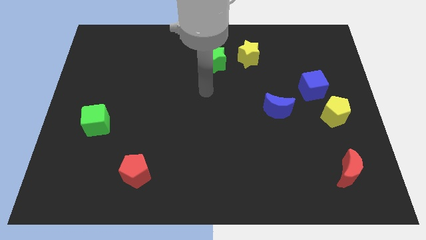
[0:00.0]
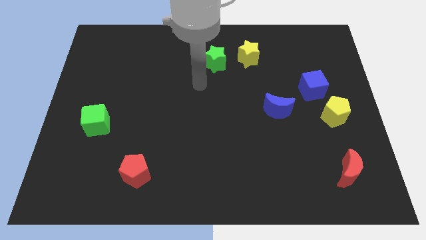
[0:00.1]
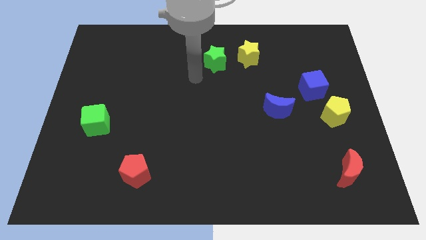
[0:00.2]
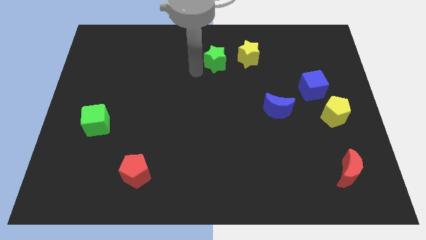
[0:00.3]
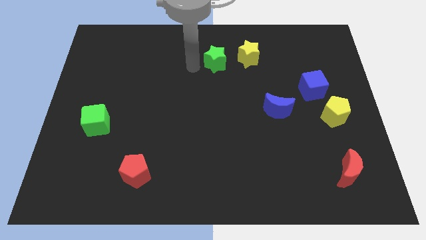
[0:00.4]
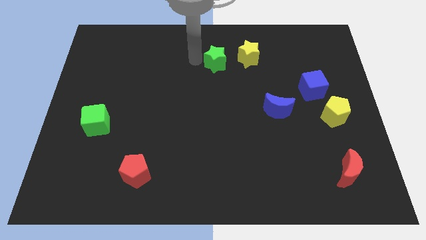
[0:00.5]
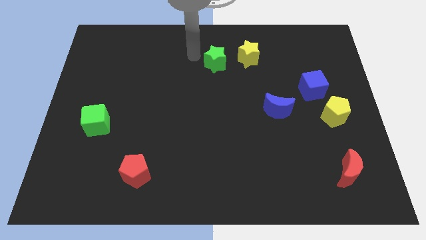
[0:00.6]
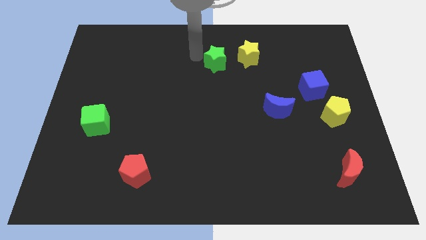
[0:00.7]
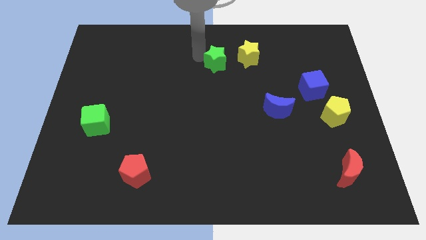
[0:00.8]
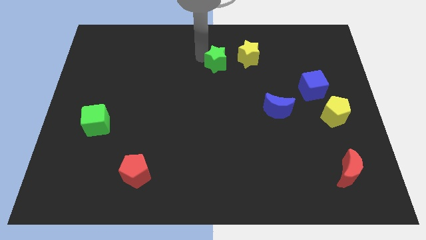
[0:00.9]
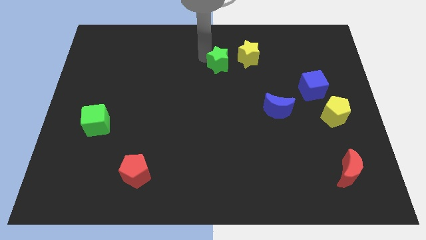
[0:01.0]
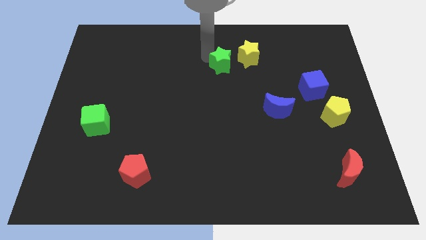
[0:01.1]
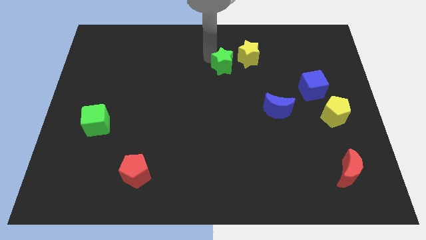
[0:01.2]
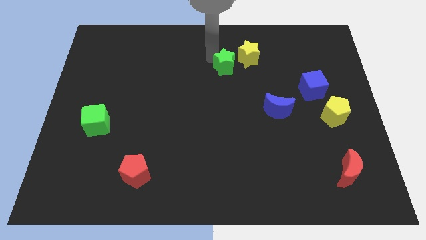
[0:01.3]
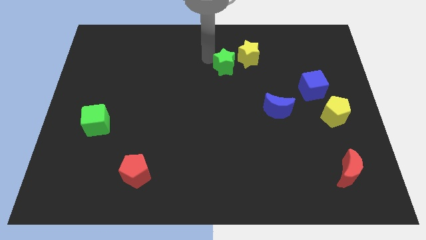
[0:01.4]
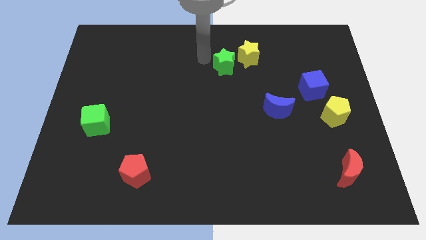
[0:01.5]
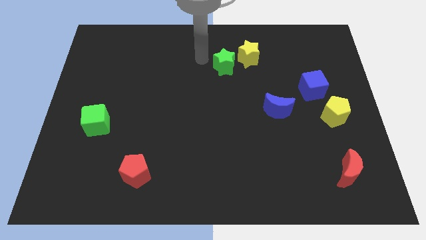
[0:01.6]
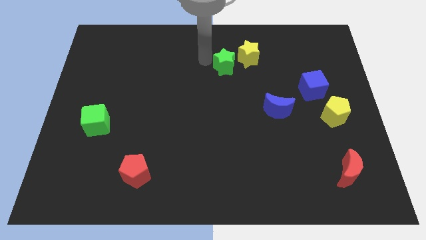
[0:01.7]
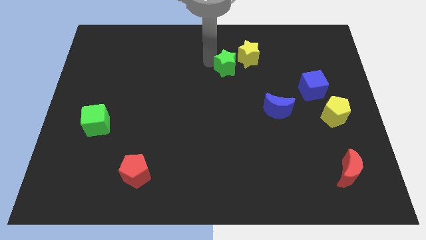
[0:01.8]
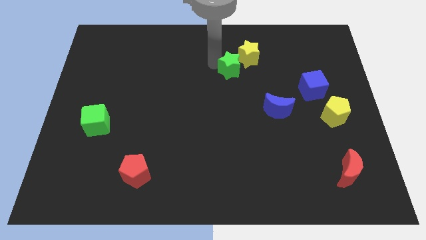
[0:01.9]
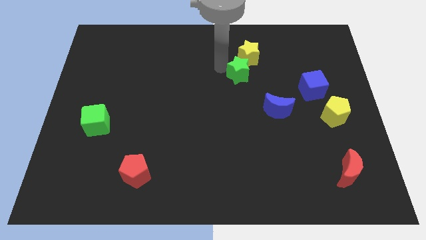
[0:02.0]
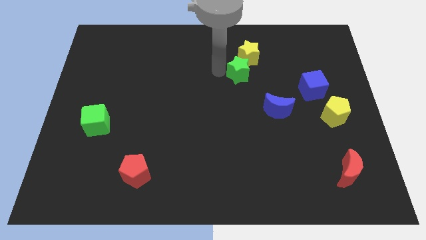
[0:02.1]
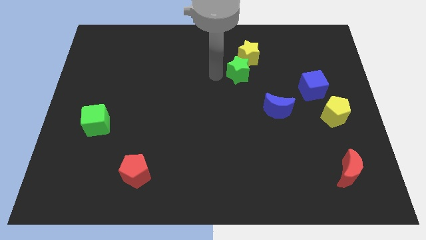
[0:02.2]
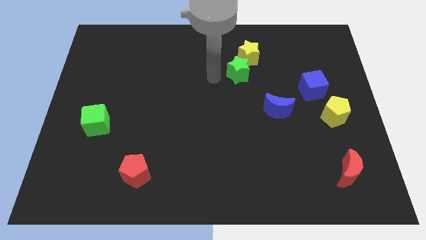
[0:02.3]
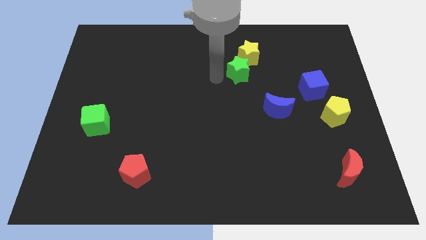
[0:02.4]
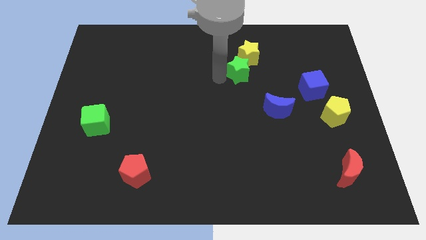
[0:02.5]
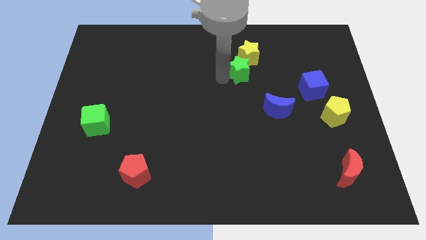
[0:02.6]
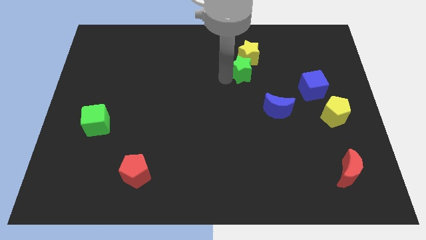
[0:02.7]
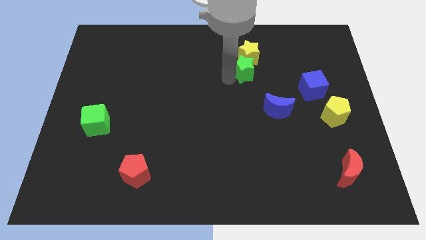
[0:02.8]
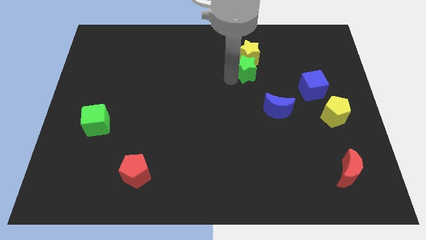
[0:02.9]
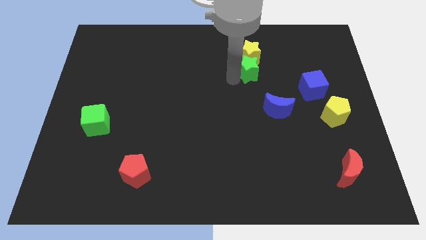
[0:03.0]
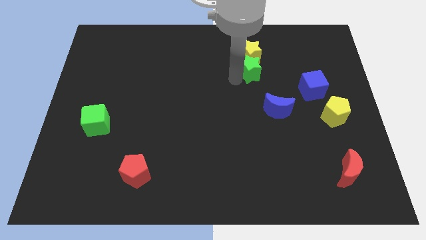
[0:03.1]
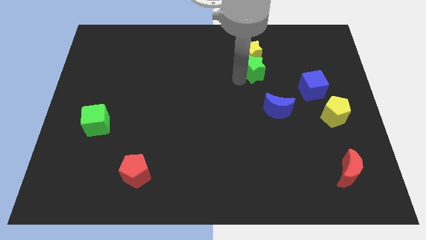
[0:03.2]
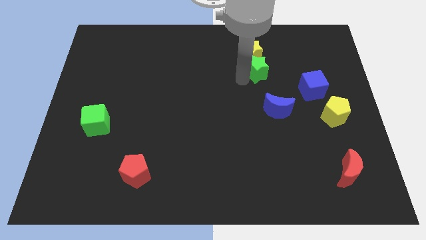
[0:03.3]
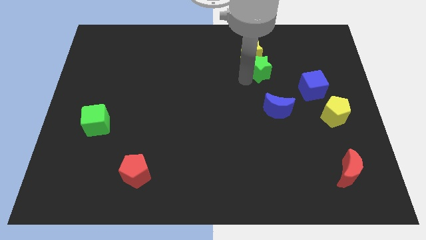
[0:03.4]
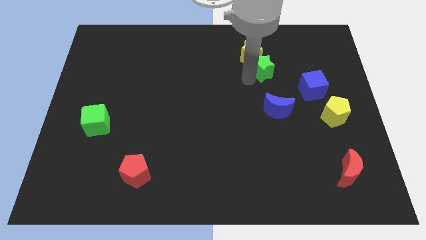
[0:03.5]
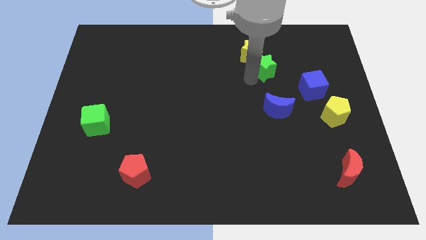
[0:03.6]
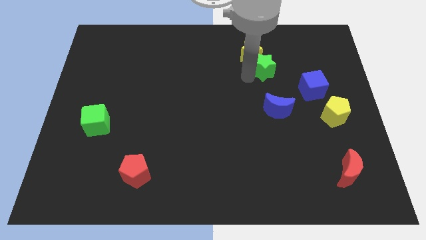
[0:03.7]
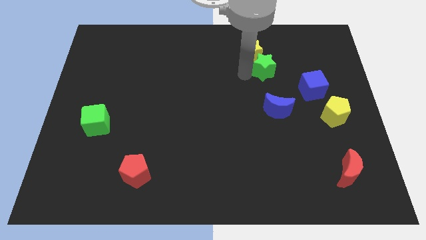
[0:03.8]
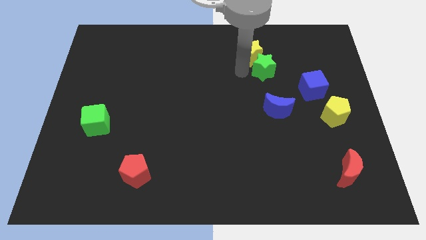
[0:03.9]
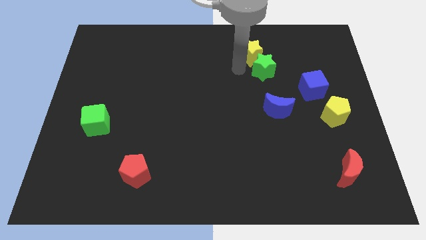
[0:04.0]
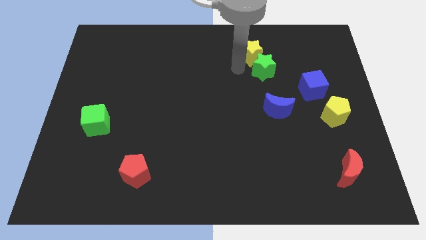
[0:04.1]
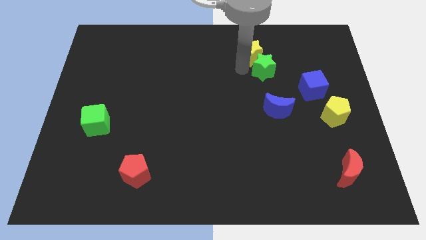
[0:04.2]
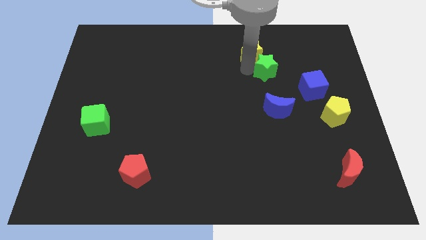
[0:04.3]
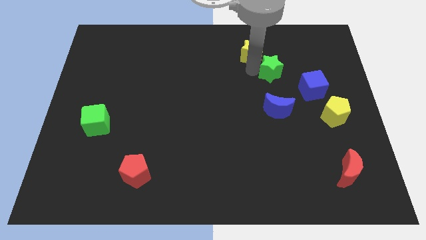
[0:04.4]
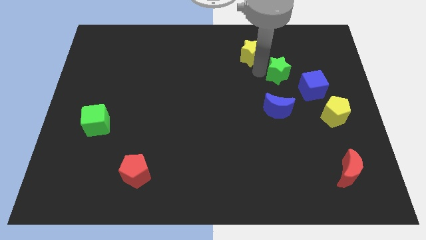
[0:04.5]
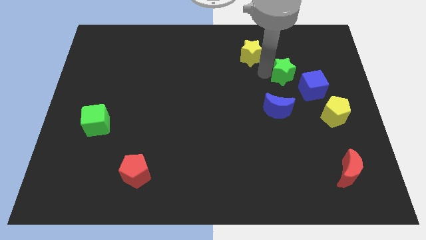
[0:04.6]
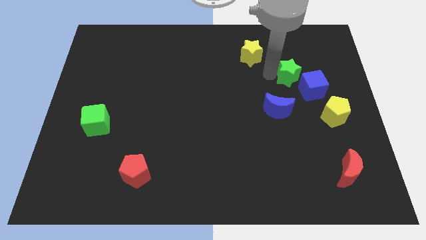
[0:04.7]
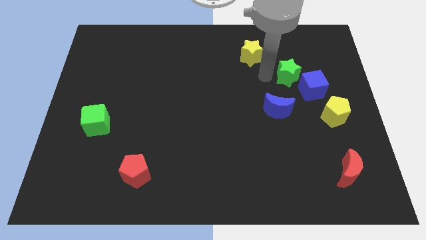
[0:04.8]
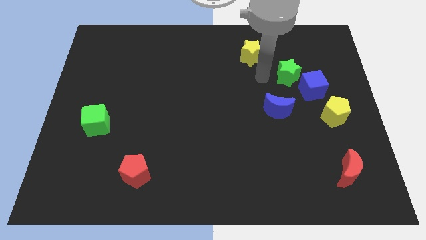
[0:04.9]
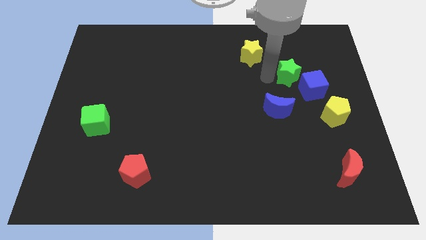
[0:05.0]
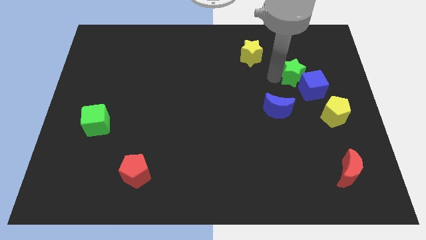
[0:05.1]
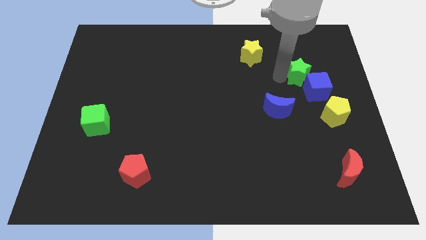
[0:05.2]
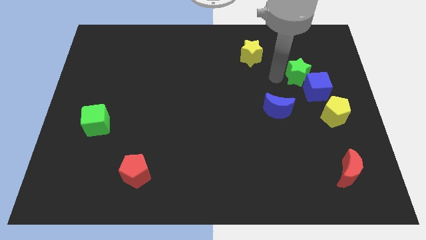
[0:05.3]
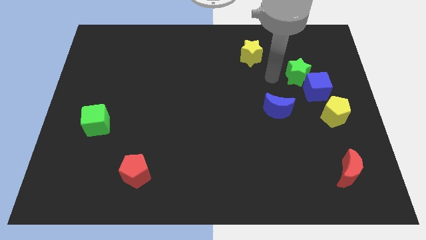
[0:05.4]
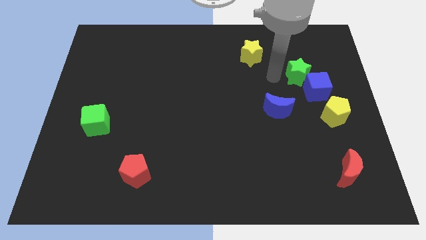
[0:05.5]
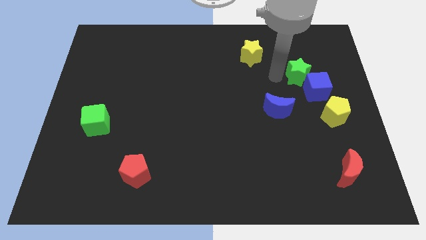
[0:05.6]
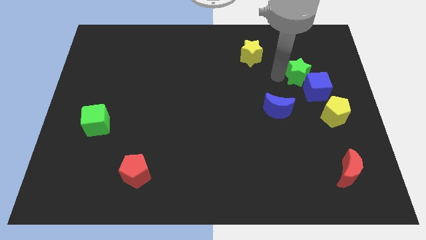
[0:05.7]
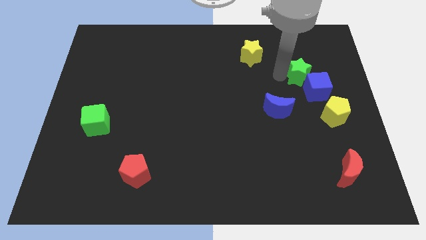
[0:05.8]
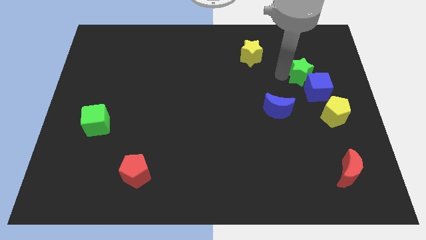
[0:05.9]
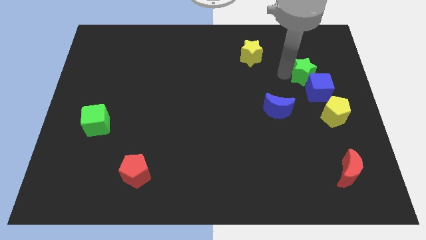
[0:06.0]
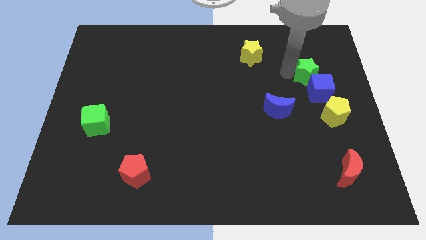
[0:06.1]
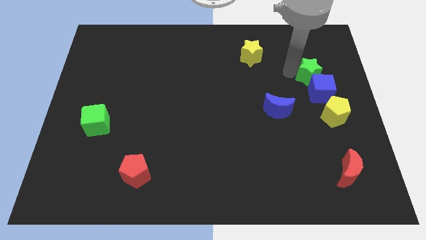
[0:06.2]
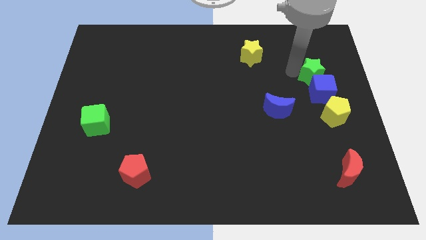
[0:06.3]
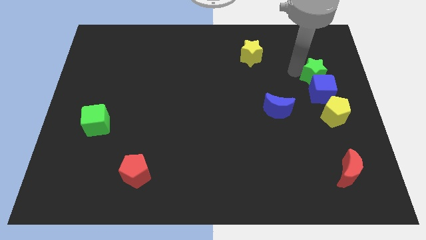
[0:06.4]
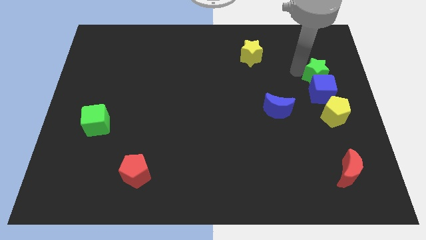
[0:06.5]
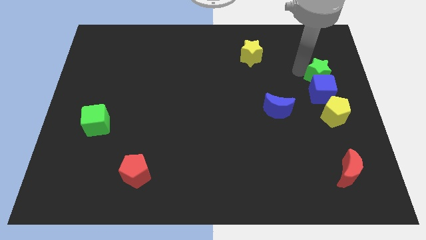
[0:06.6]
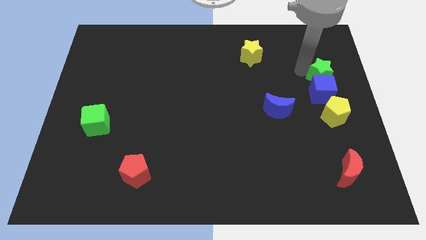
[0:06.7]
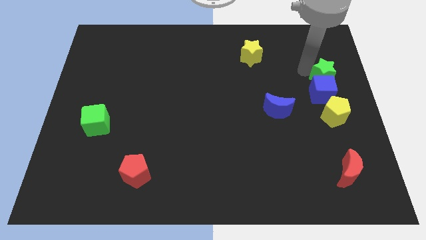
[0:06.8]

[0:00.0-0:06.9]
put the green star to the right side
